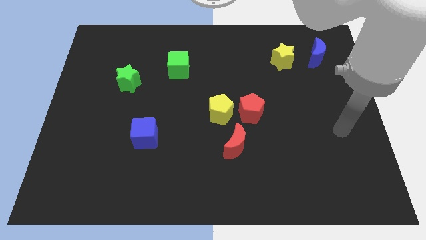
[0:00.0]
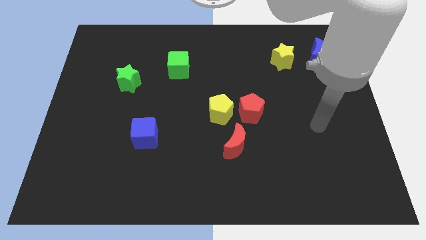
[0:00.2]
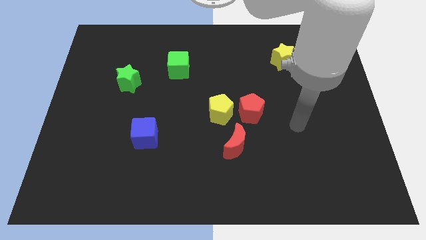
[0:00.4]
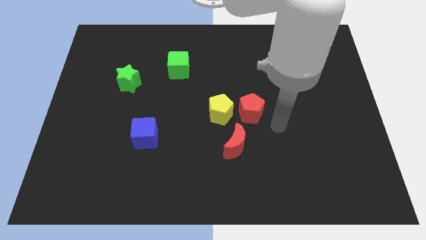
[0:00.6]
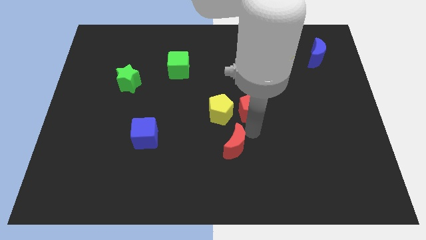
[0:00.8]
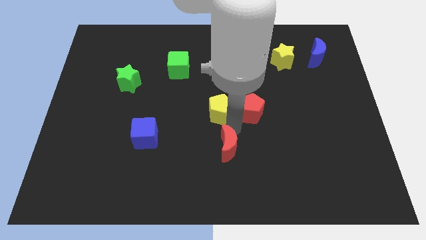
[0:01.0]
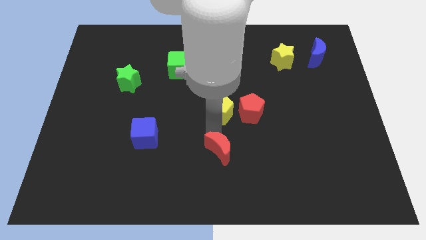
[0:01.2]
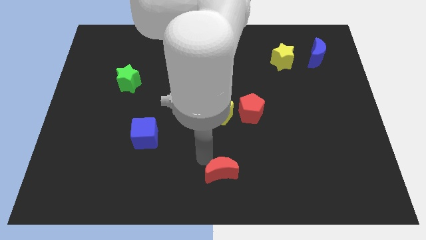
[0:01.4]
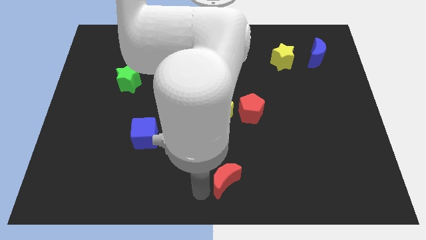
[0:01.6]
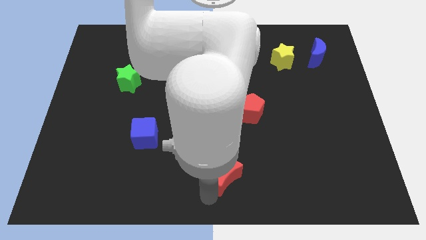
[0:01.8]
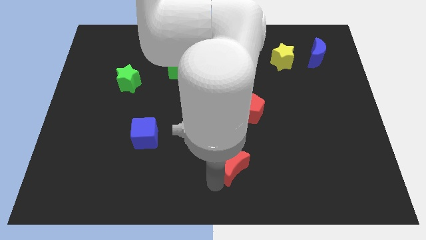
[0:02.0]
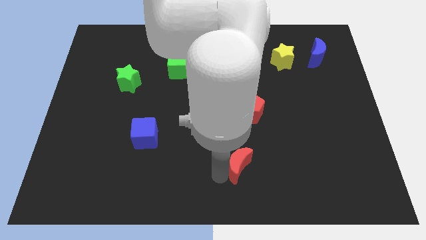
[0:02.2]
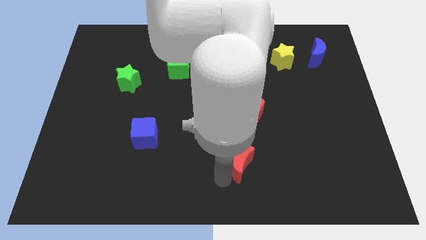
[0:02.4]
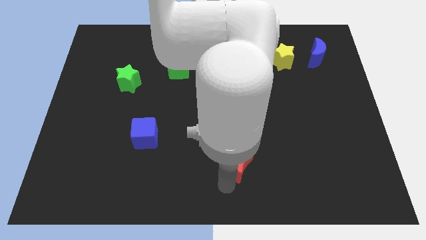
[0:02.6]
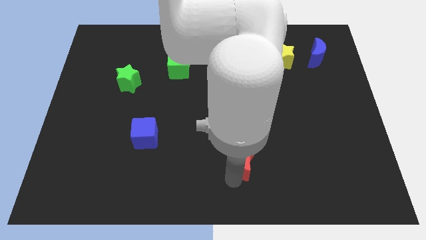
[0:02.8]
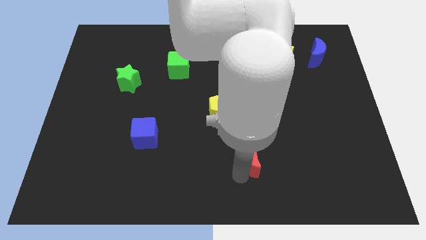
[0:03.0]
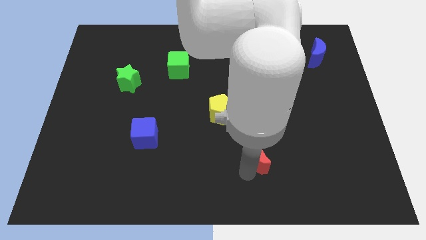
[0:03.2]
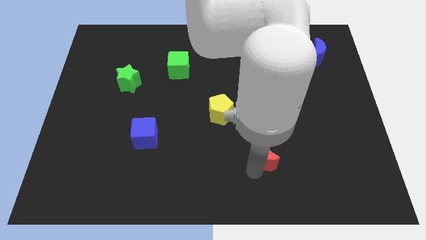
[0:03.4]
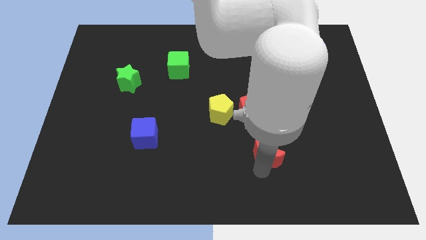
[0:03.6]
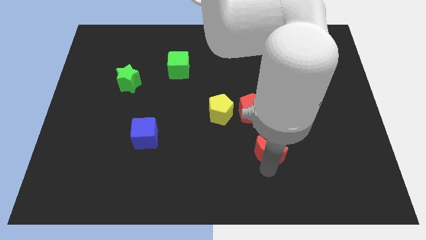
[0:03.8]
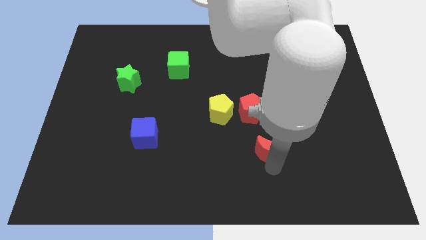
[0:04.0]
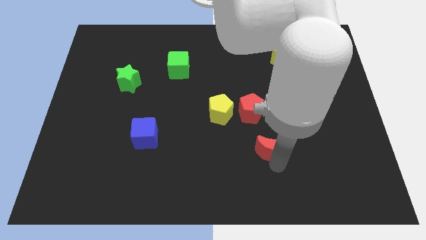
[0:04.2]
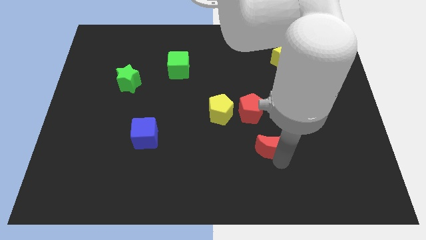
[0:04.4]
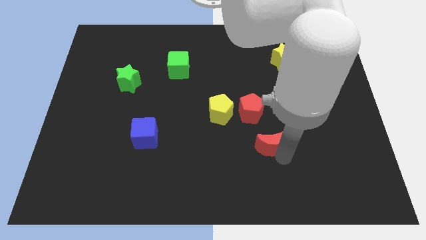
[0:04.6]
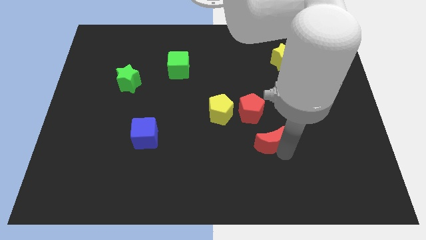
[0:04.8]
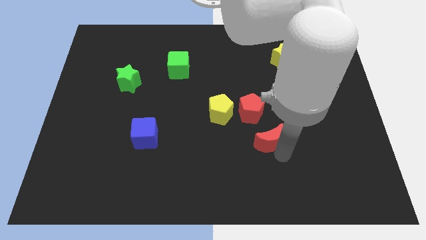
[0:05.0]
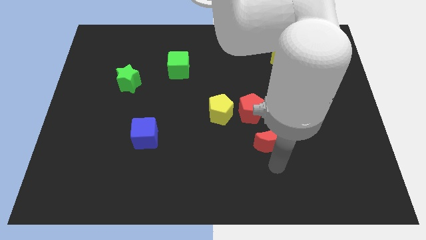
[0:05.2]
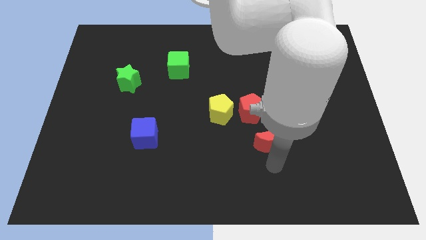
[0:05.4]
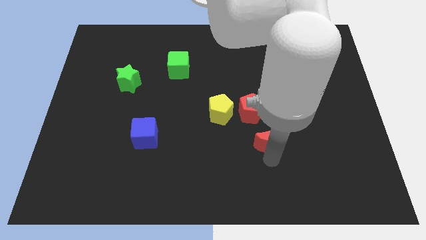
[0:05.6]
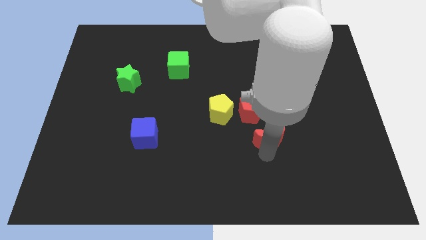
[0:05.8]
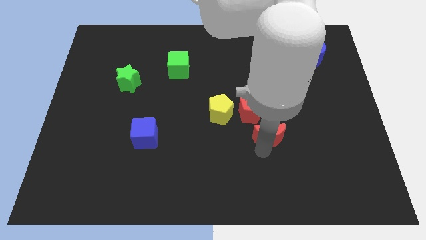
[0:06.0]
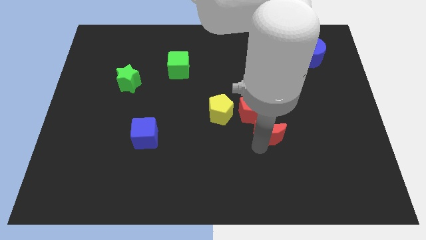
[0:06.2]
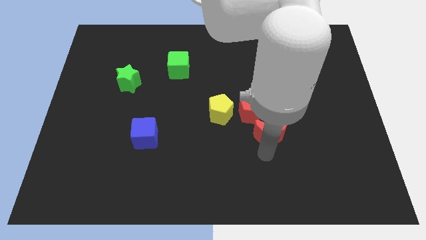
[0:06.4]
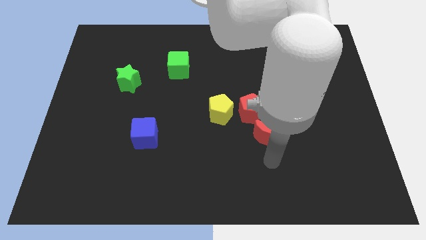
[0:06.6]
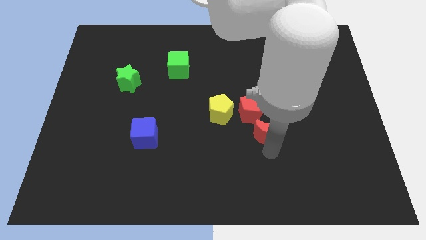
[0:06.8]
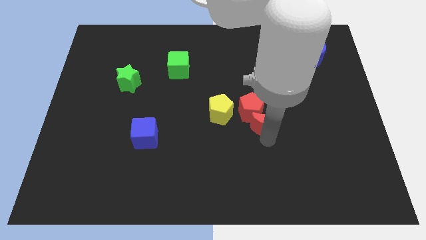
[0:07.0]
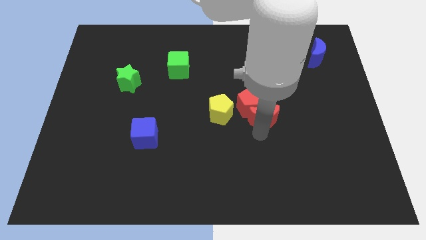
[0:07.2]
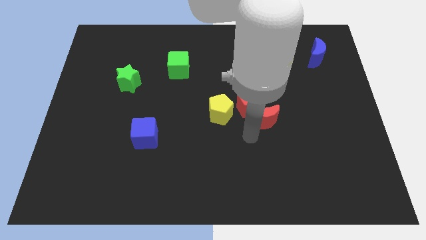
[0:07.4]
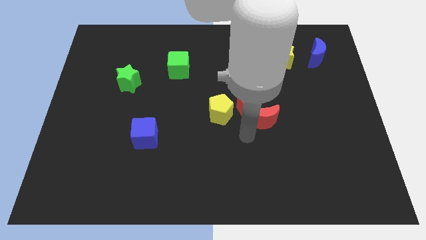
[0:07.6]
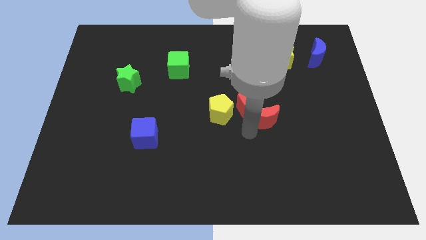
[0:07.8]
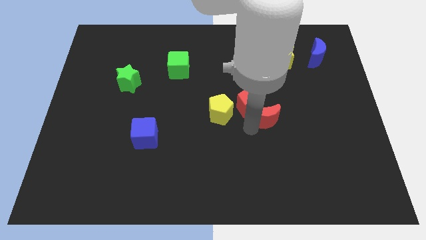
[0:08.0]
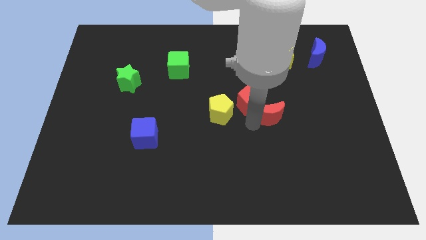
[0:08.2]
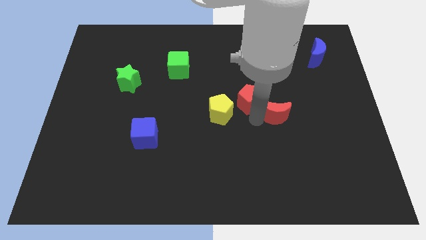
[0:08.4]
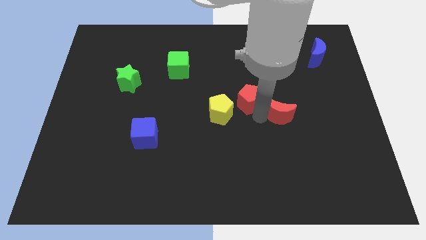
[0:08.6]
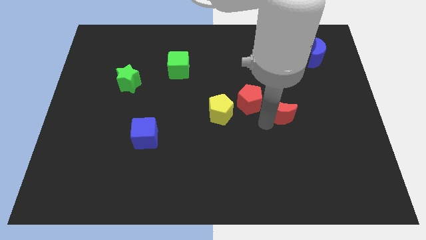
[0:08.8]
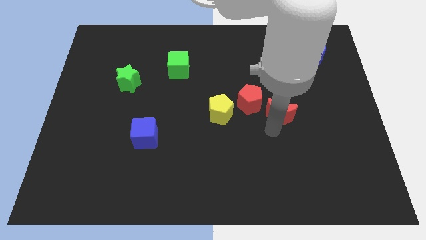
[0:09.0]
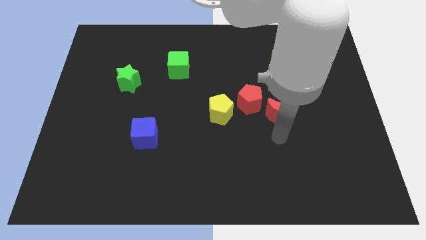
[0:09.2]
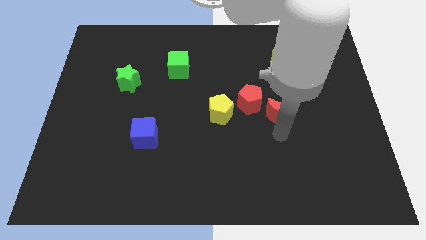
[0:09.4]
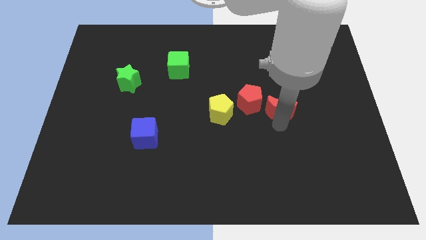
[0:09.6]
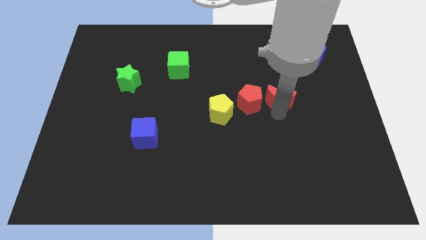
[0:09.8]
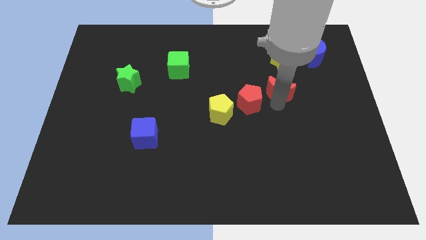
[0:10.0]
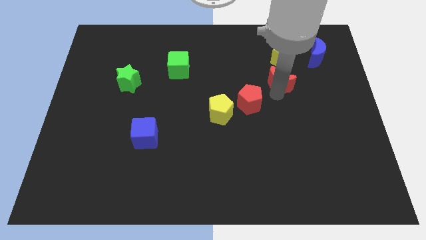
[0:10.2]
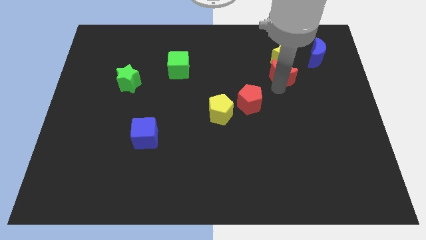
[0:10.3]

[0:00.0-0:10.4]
move the red moon close to the yellow star

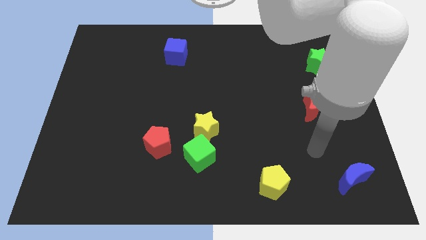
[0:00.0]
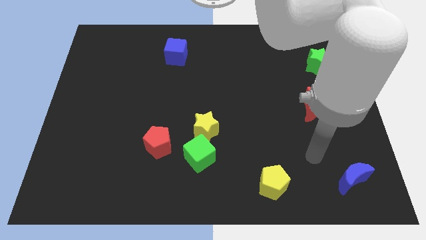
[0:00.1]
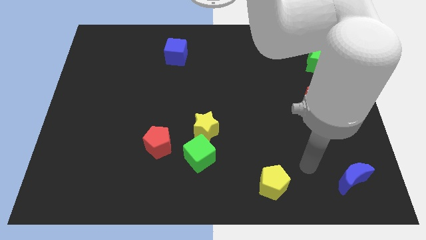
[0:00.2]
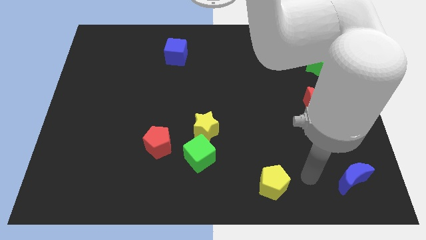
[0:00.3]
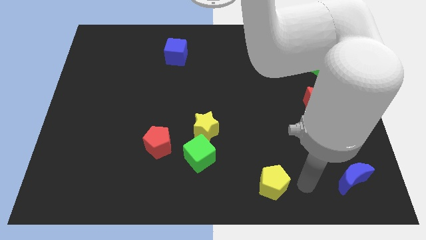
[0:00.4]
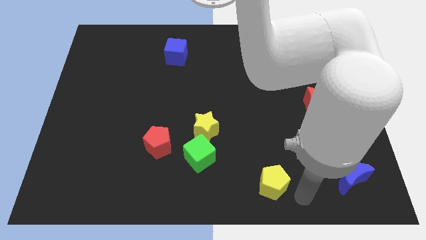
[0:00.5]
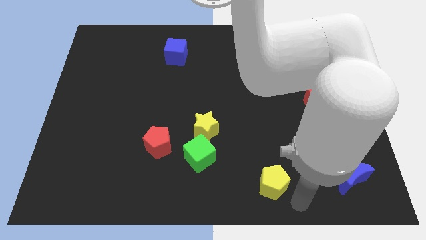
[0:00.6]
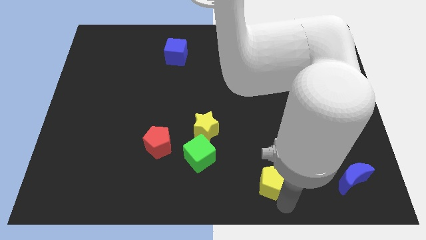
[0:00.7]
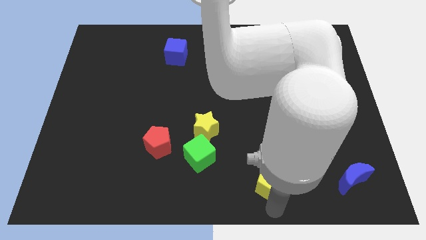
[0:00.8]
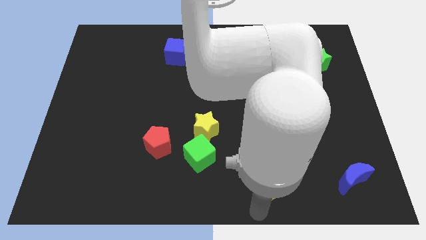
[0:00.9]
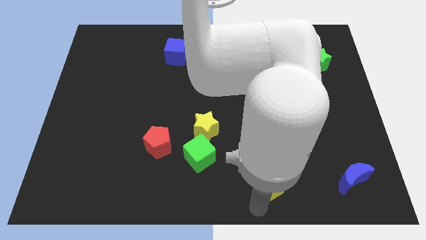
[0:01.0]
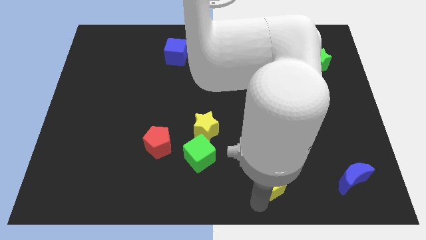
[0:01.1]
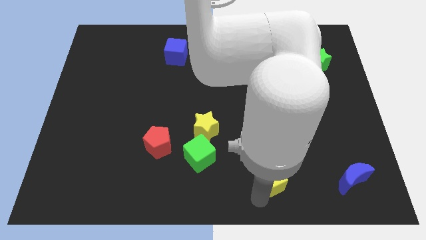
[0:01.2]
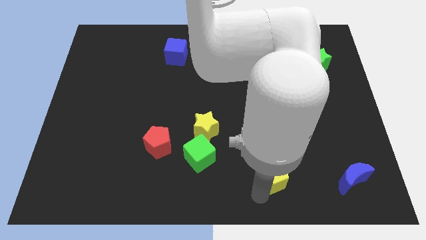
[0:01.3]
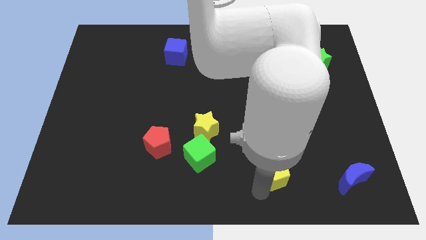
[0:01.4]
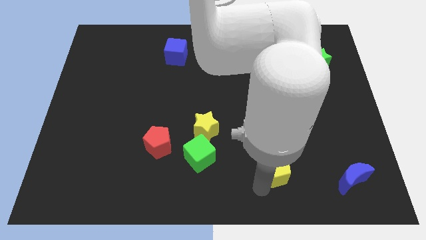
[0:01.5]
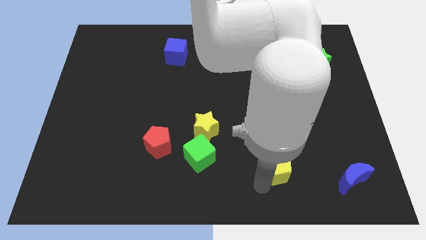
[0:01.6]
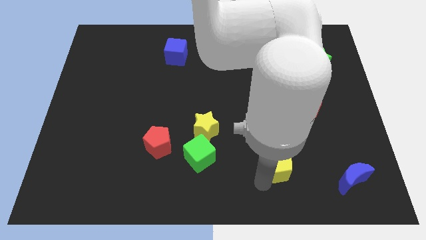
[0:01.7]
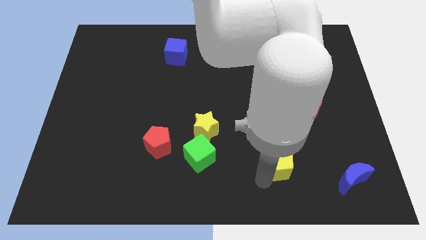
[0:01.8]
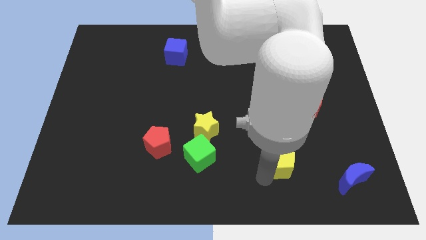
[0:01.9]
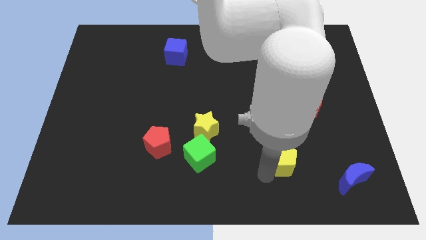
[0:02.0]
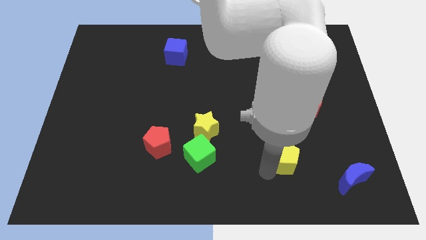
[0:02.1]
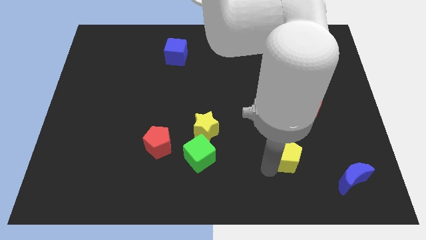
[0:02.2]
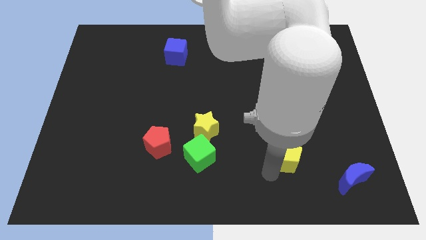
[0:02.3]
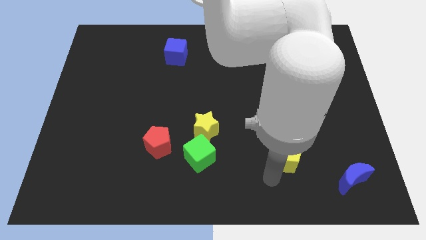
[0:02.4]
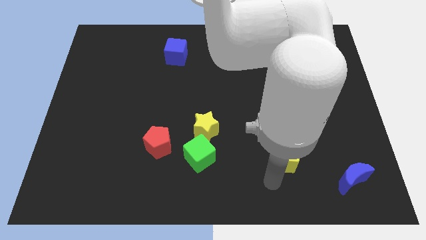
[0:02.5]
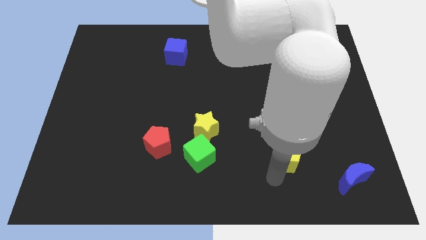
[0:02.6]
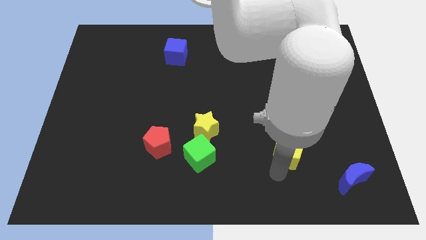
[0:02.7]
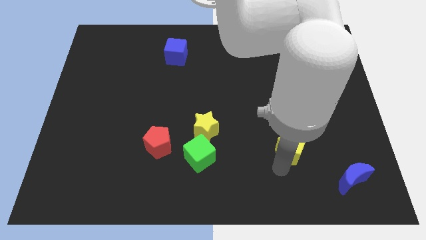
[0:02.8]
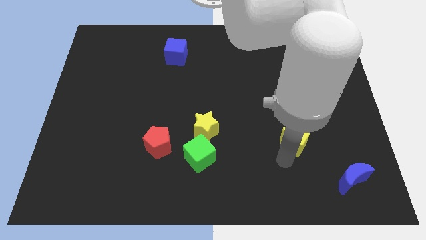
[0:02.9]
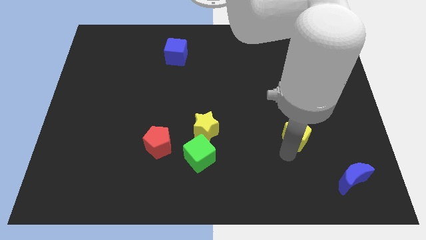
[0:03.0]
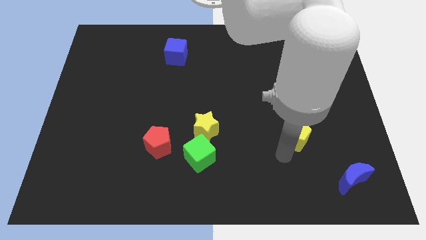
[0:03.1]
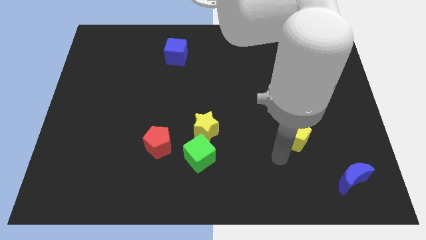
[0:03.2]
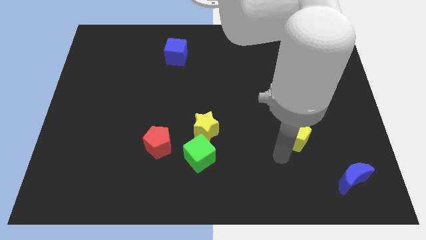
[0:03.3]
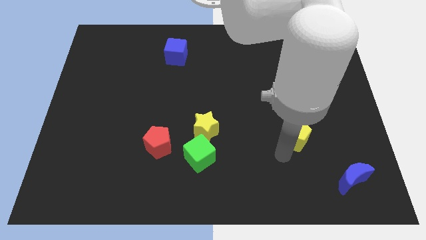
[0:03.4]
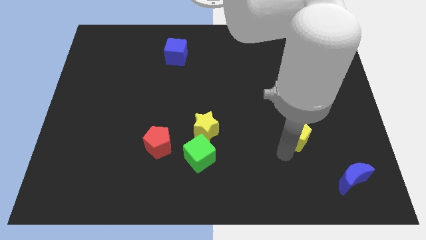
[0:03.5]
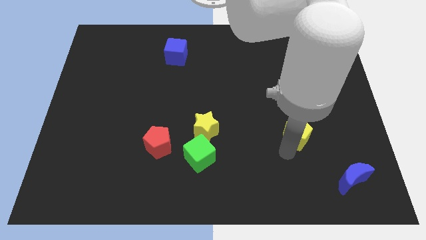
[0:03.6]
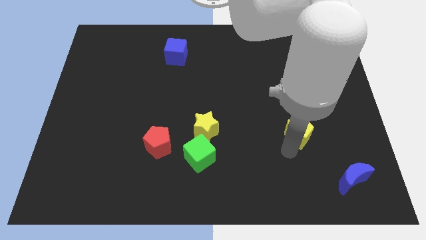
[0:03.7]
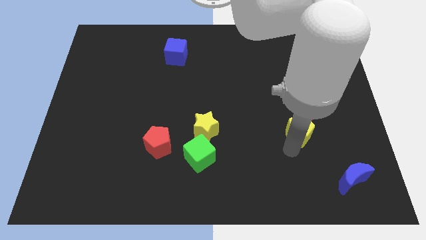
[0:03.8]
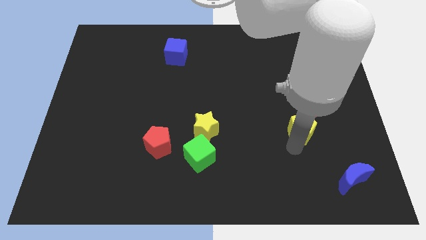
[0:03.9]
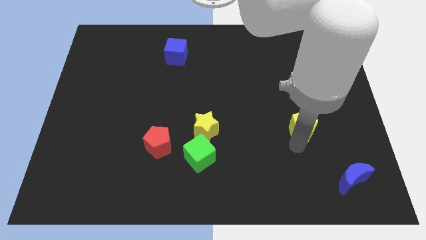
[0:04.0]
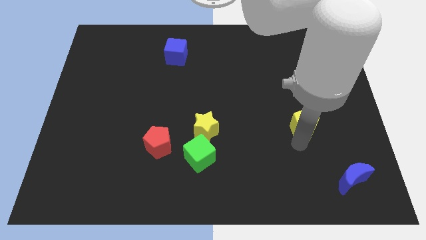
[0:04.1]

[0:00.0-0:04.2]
move the yellow pentagon towards the red moon
